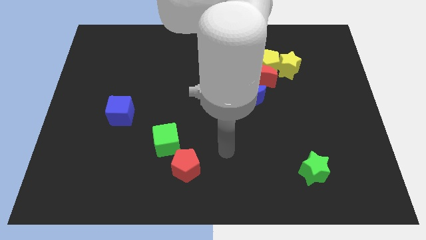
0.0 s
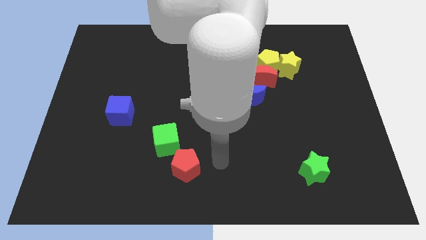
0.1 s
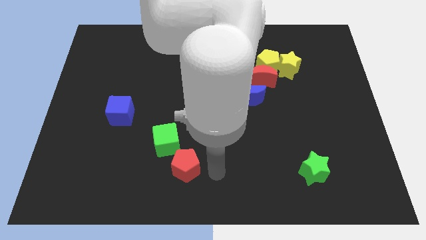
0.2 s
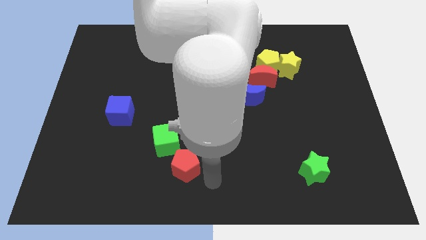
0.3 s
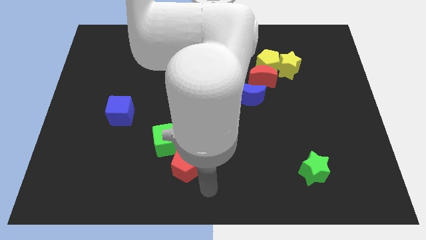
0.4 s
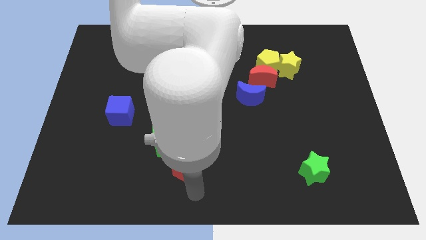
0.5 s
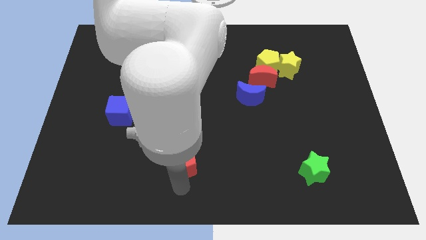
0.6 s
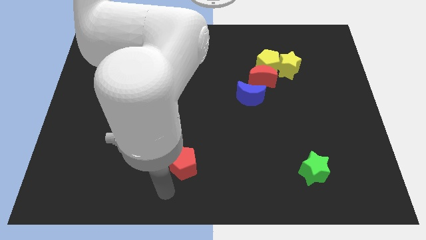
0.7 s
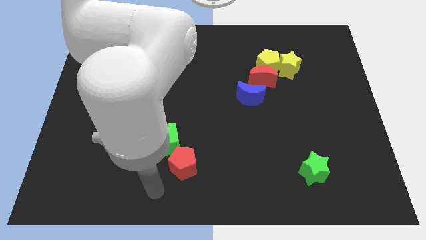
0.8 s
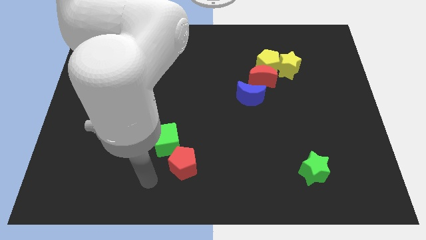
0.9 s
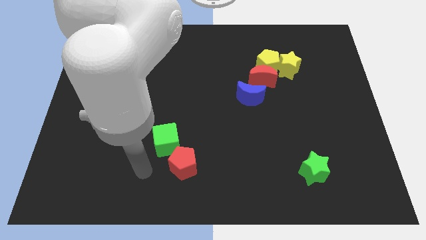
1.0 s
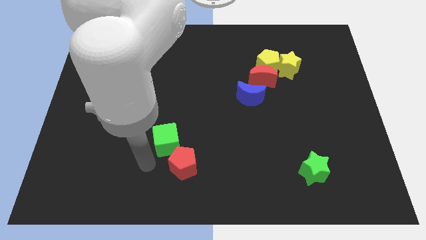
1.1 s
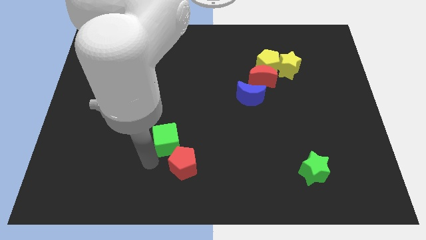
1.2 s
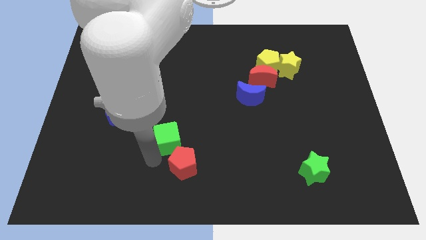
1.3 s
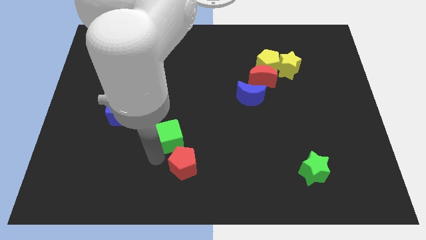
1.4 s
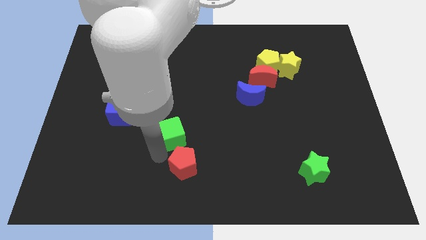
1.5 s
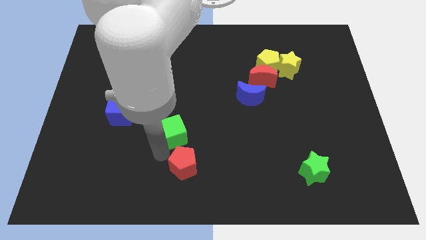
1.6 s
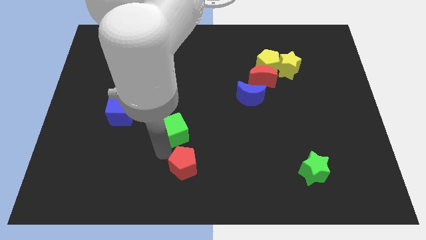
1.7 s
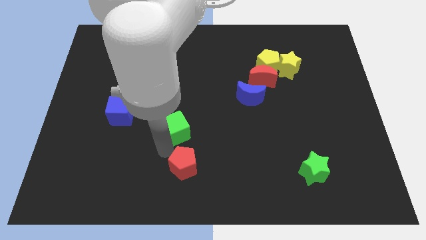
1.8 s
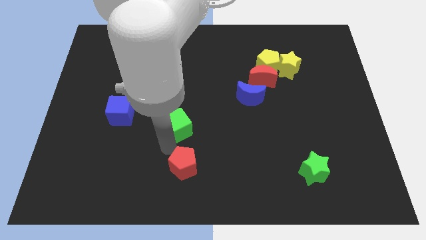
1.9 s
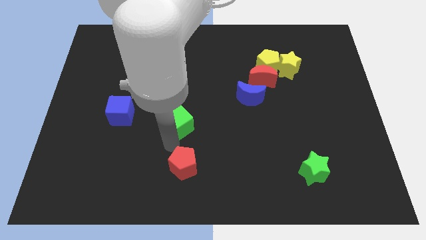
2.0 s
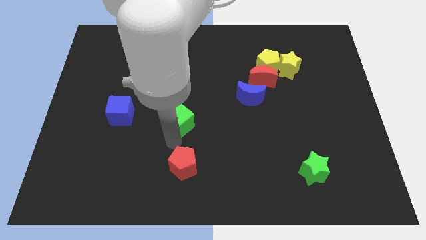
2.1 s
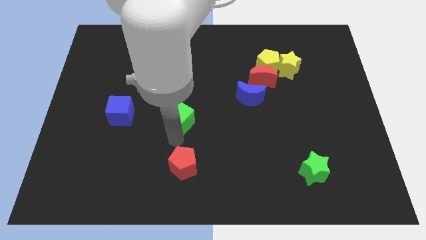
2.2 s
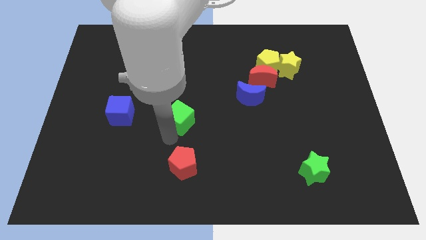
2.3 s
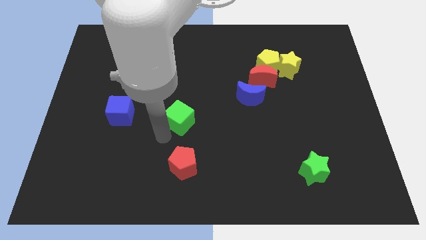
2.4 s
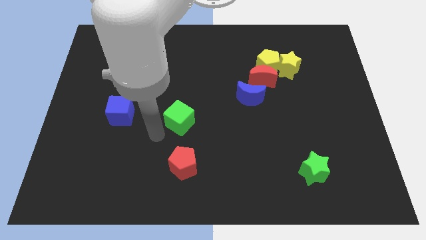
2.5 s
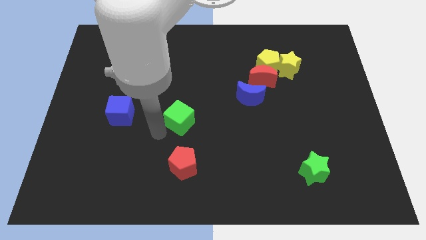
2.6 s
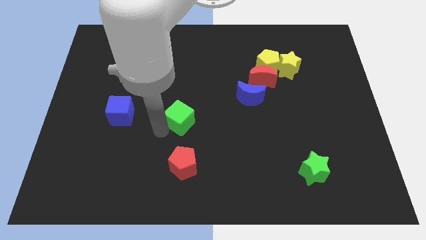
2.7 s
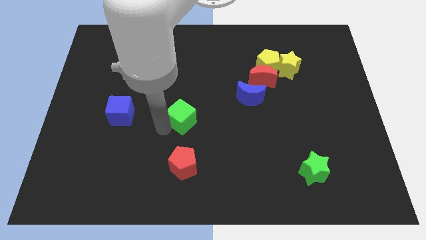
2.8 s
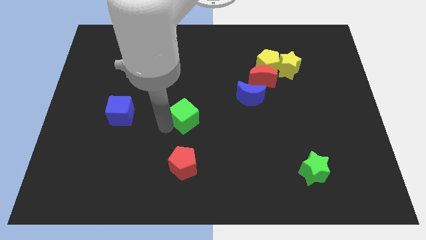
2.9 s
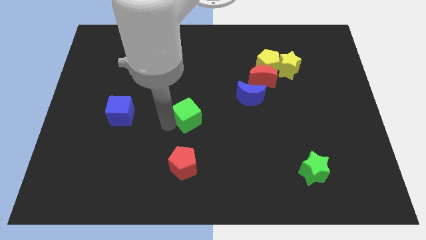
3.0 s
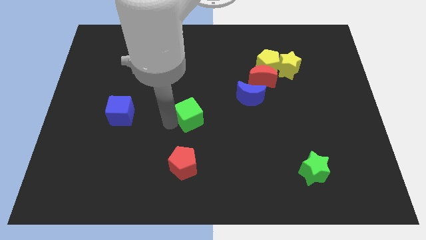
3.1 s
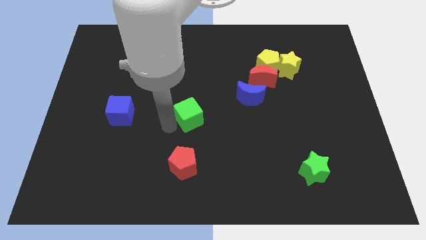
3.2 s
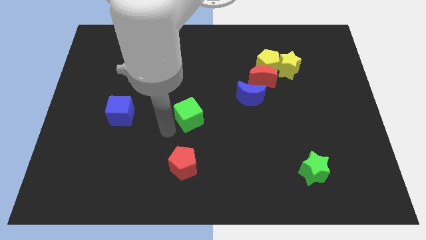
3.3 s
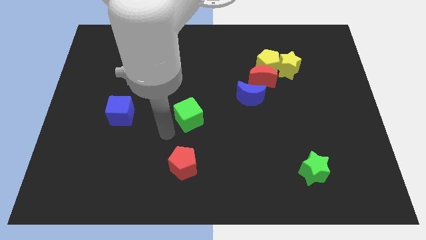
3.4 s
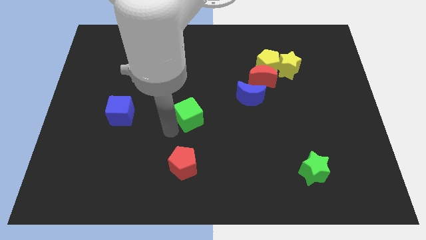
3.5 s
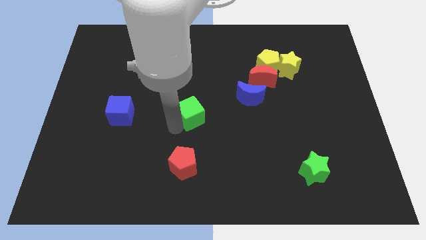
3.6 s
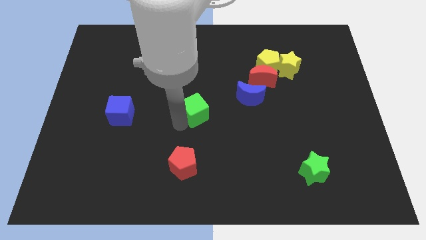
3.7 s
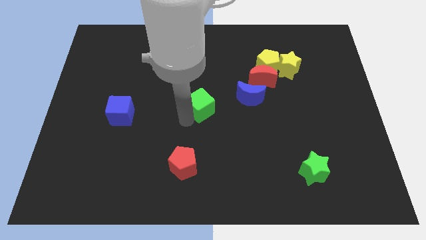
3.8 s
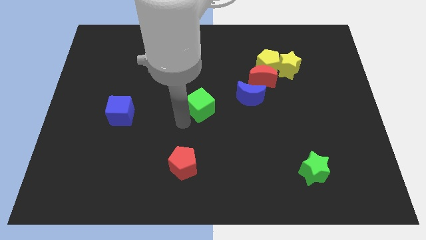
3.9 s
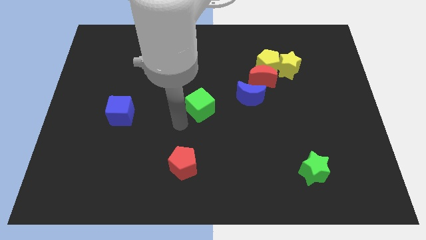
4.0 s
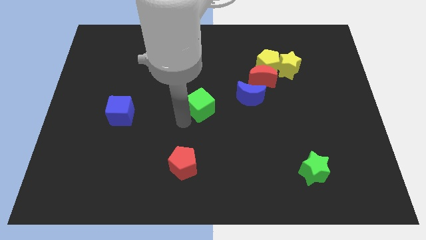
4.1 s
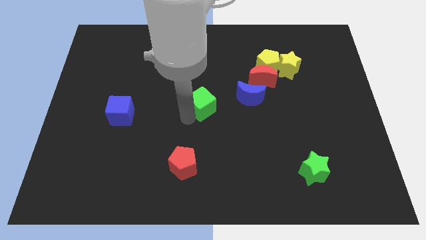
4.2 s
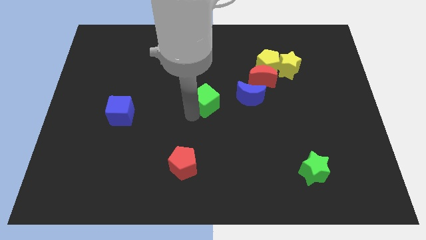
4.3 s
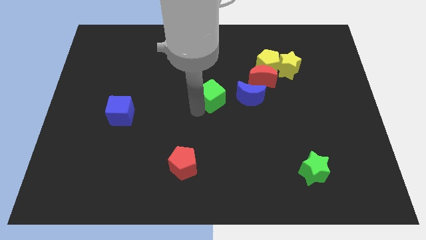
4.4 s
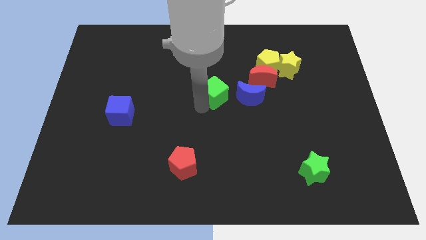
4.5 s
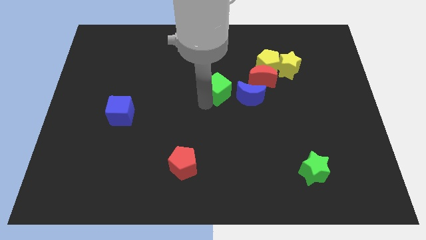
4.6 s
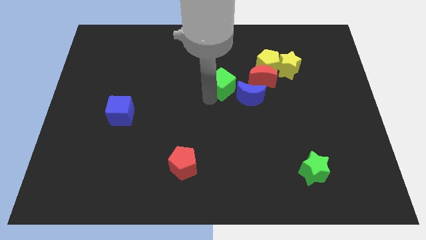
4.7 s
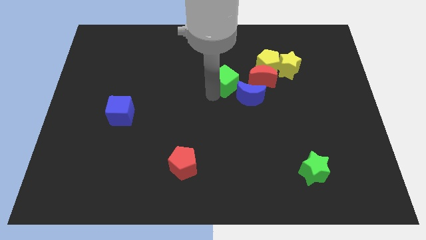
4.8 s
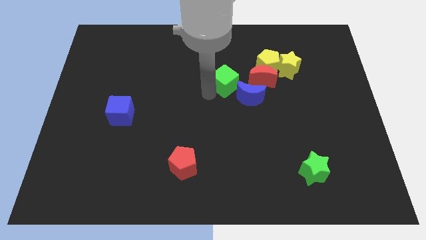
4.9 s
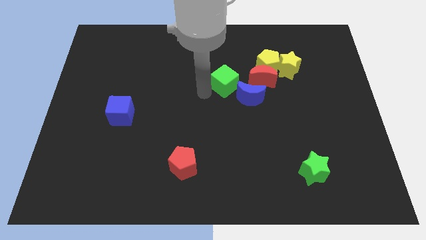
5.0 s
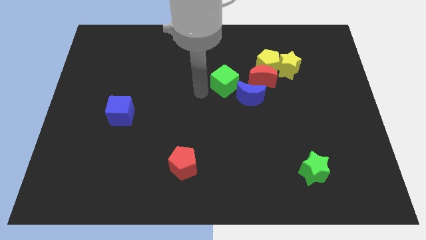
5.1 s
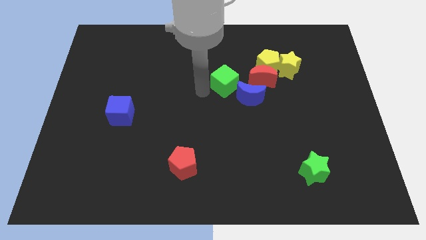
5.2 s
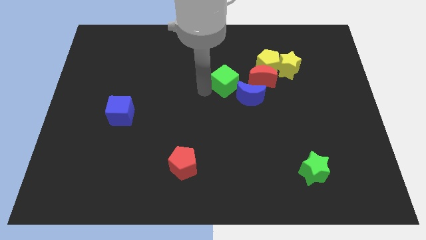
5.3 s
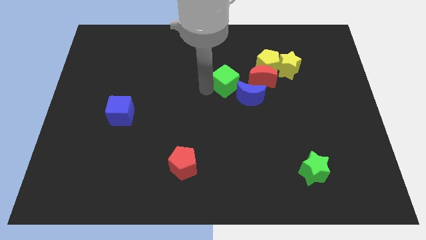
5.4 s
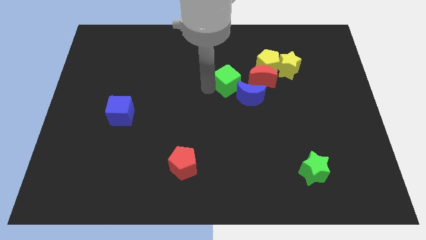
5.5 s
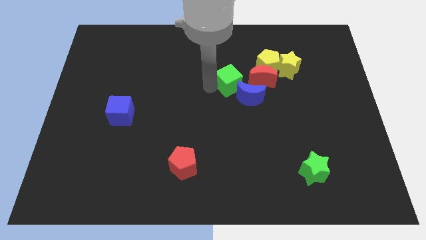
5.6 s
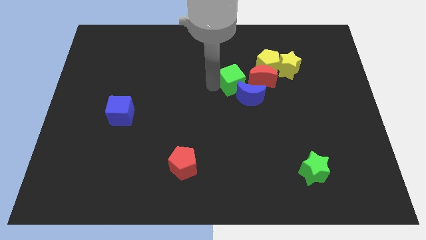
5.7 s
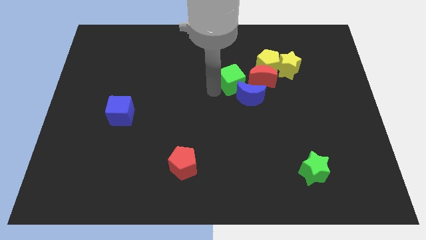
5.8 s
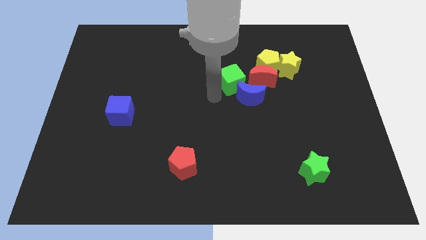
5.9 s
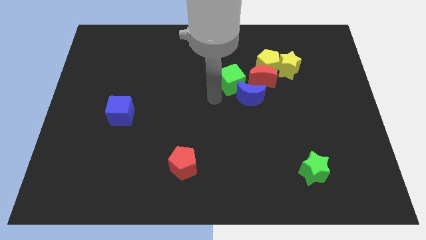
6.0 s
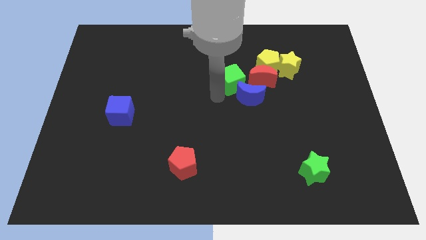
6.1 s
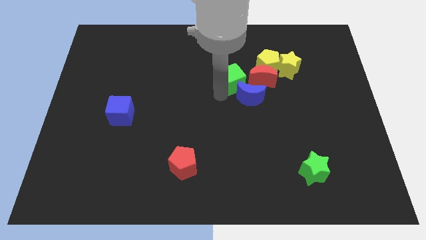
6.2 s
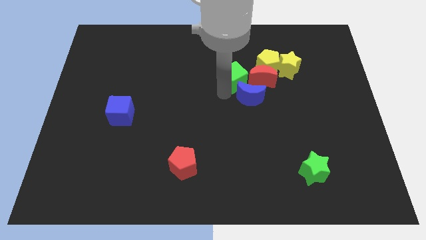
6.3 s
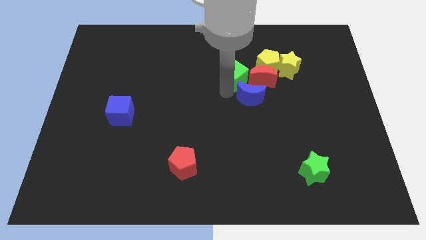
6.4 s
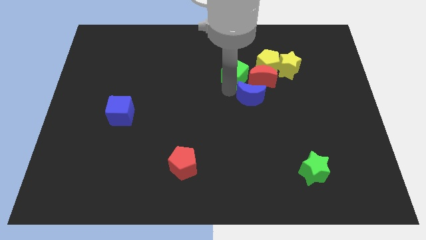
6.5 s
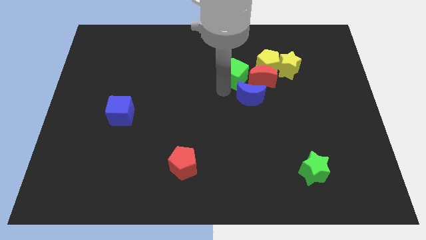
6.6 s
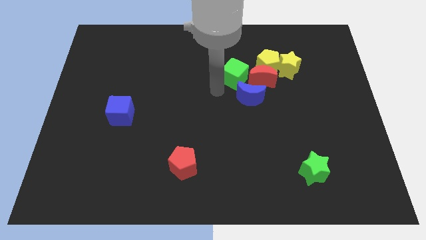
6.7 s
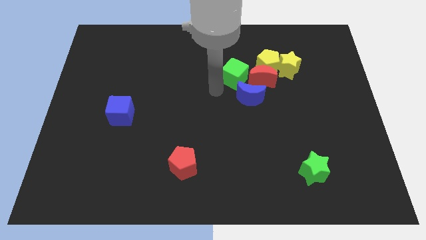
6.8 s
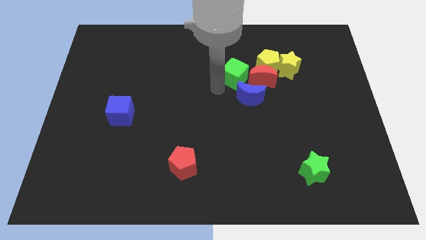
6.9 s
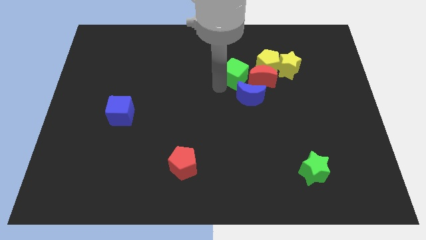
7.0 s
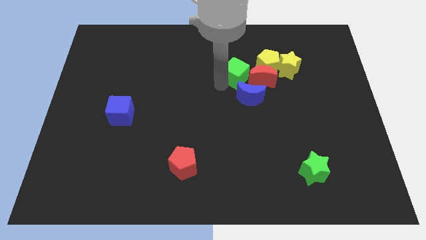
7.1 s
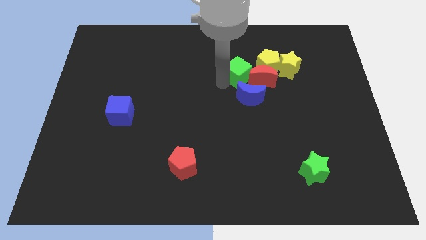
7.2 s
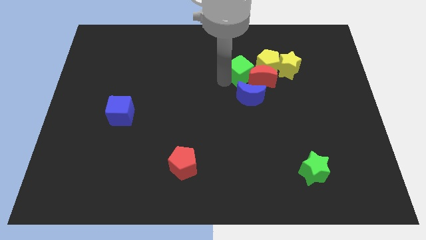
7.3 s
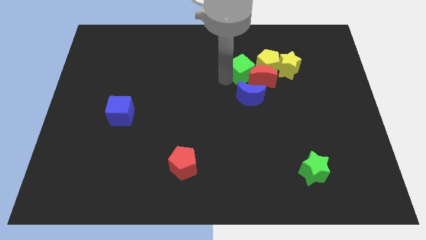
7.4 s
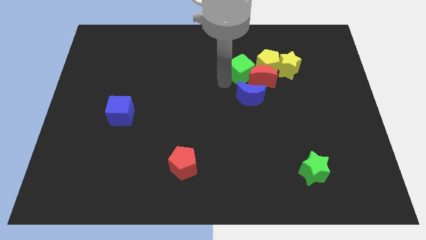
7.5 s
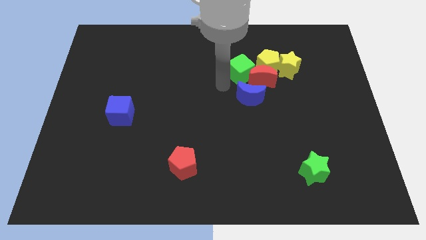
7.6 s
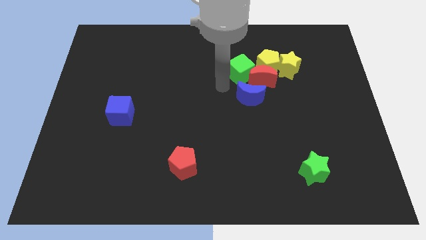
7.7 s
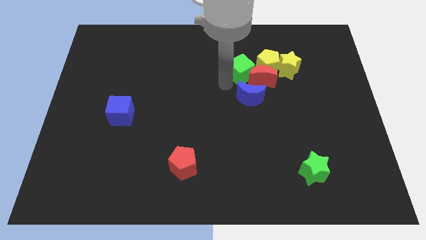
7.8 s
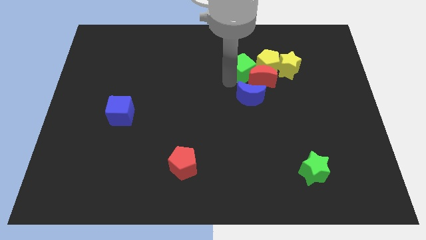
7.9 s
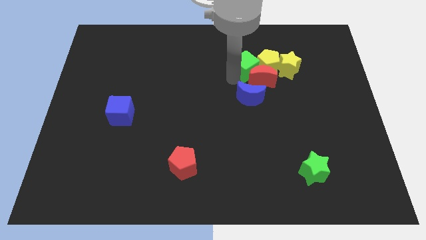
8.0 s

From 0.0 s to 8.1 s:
slide the green cube towards the yellow pentagon
